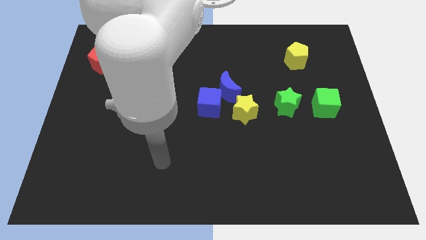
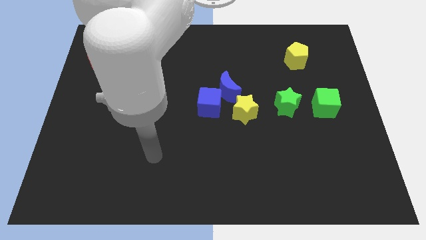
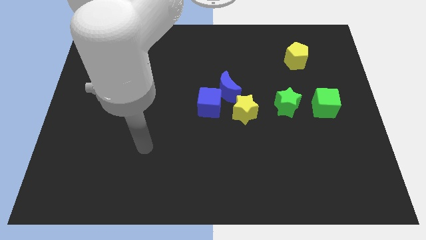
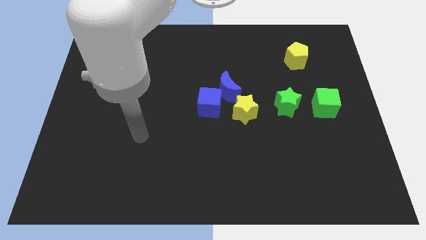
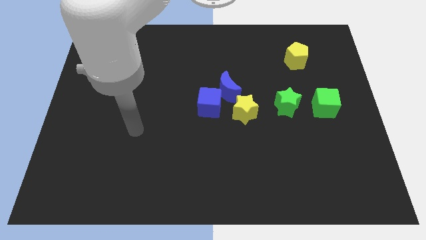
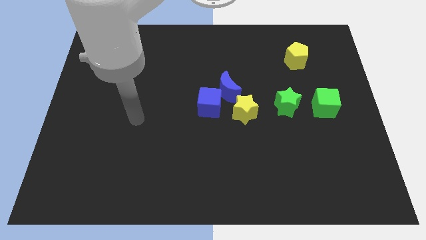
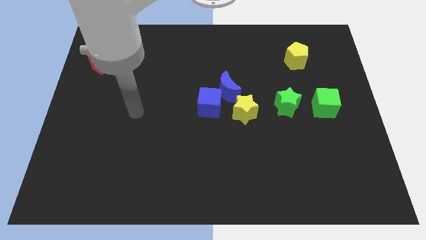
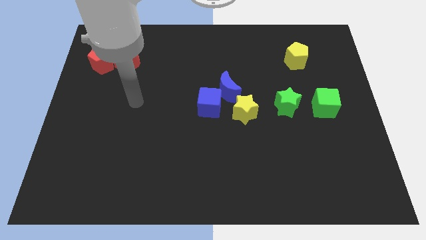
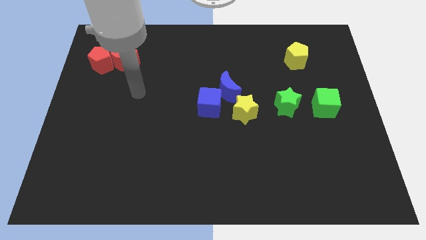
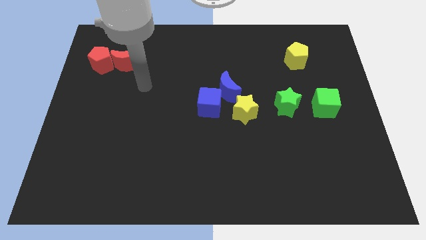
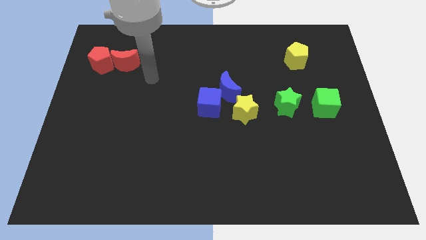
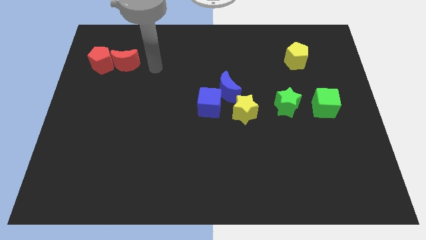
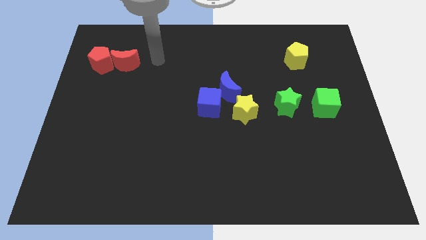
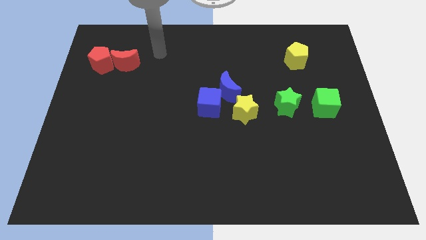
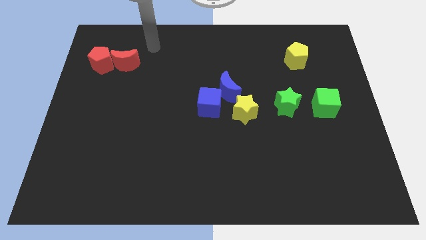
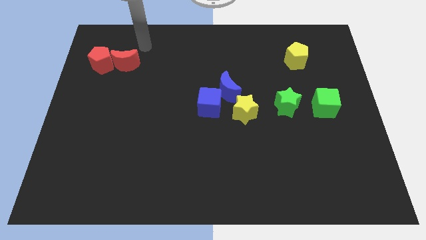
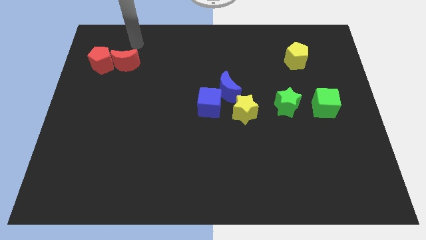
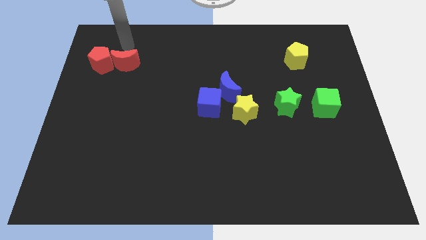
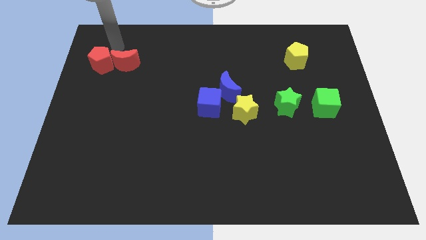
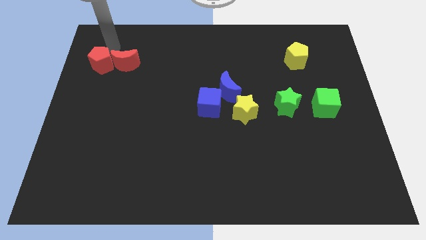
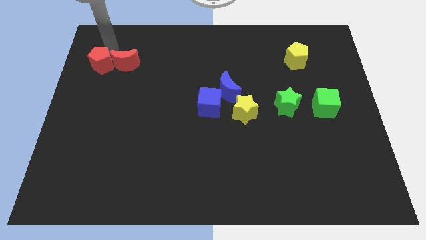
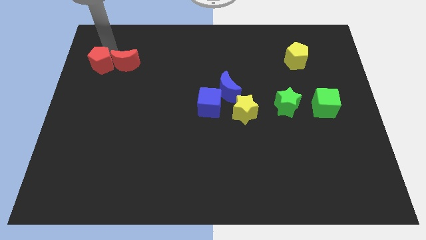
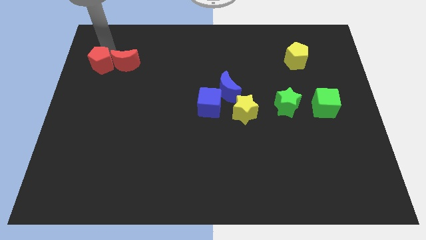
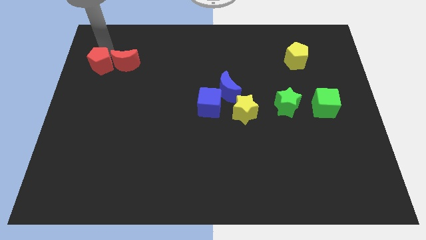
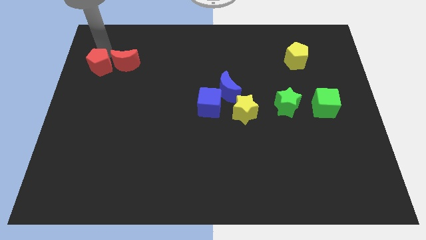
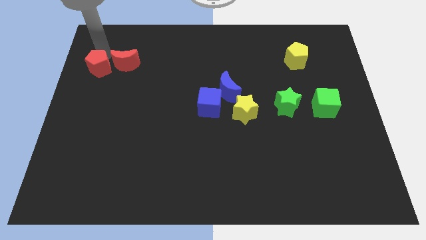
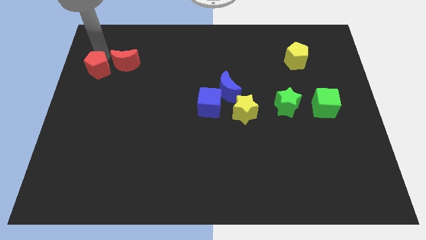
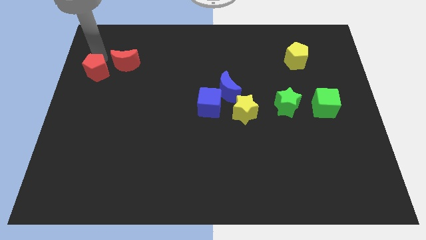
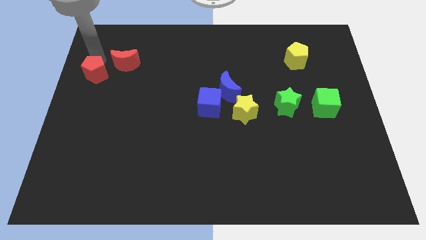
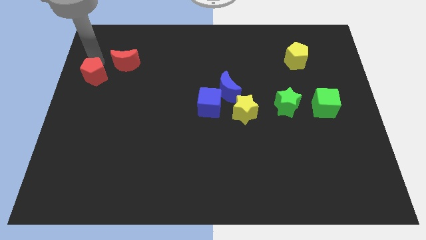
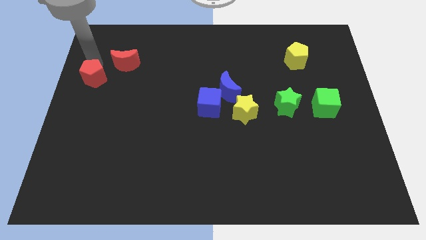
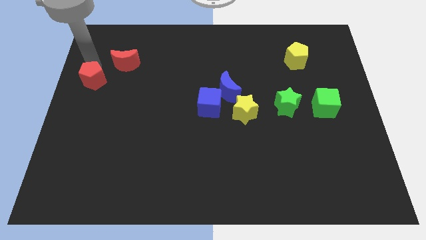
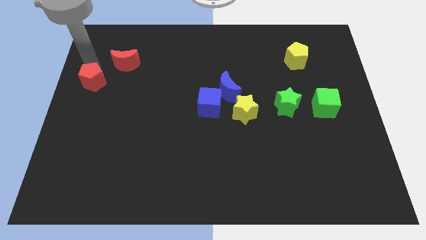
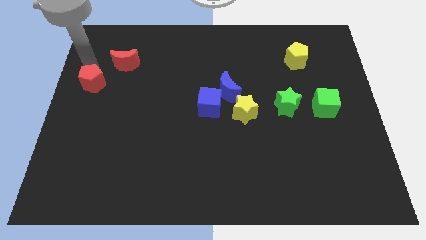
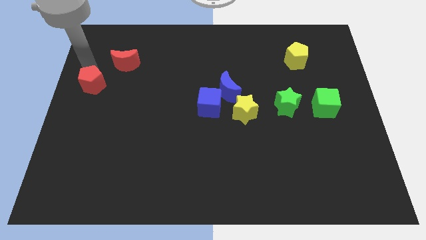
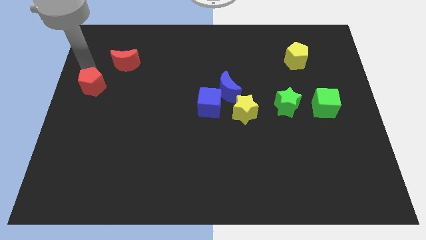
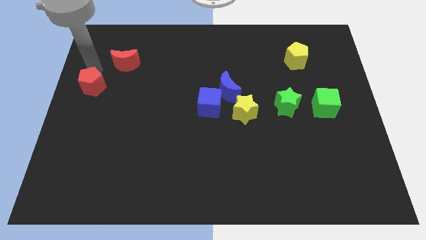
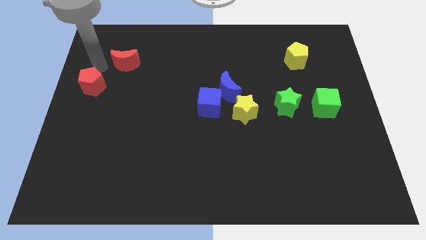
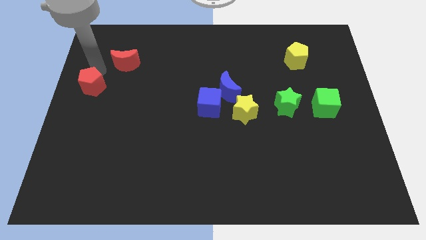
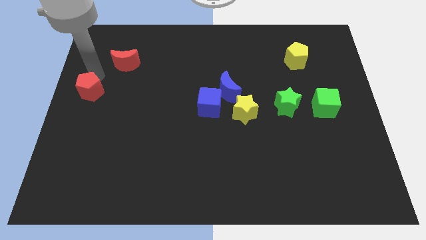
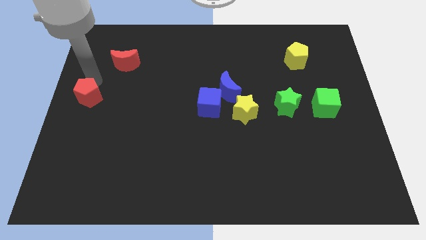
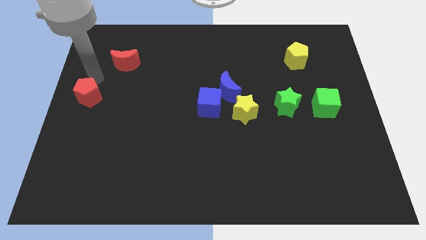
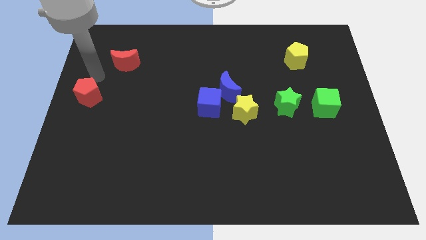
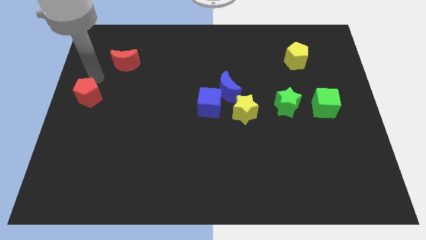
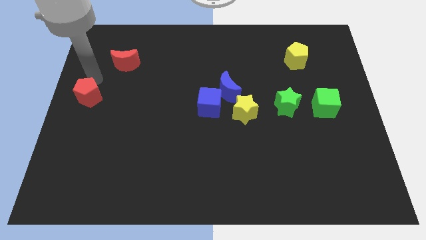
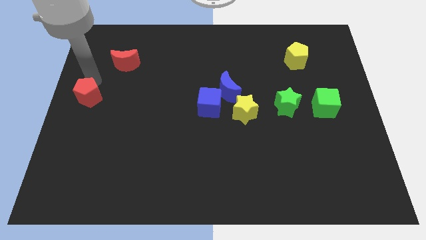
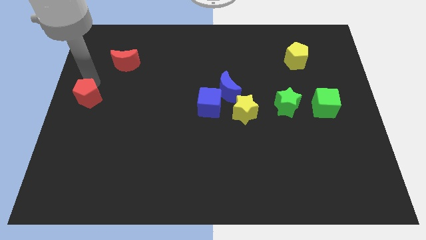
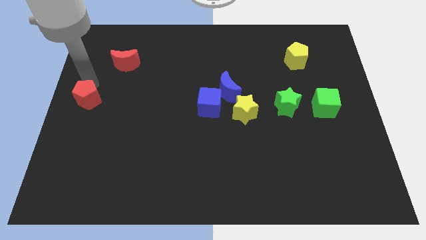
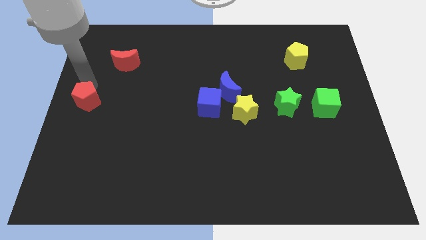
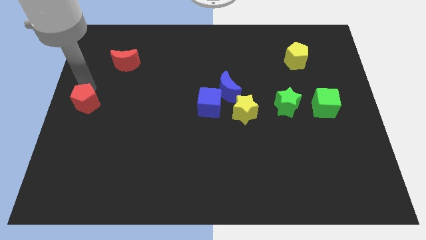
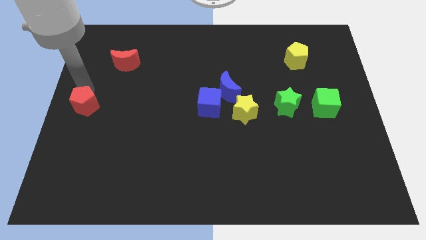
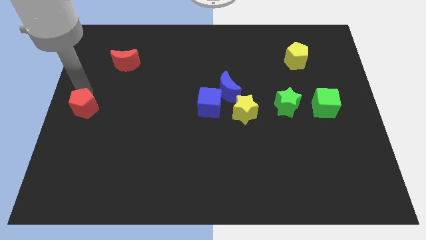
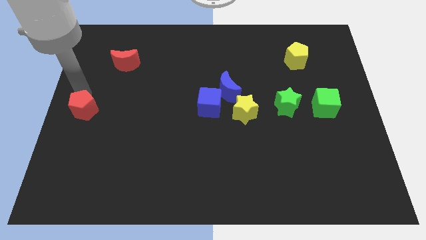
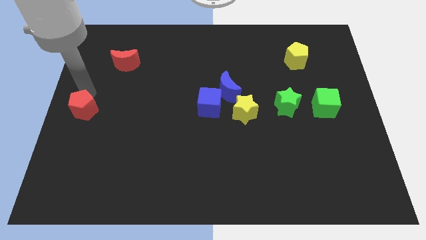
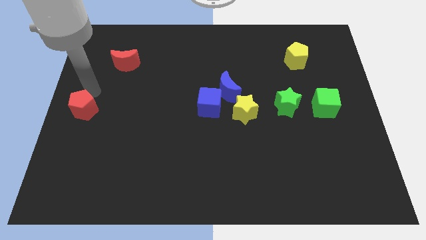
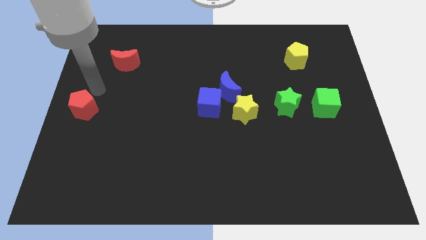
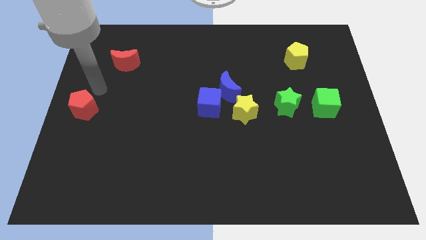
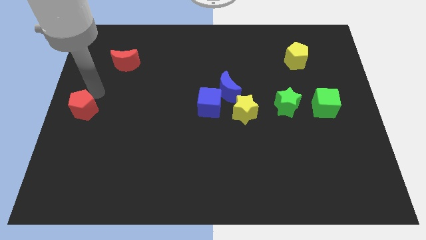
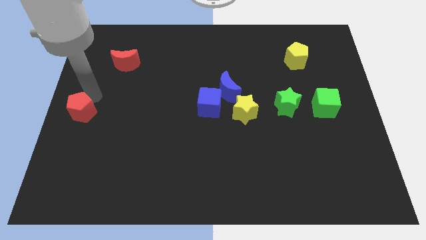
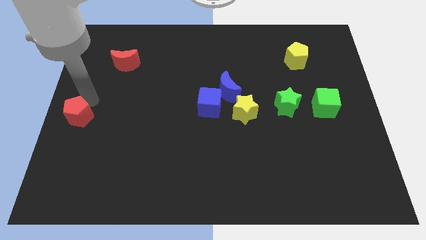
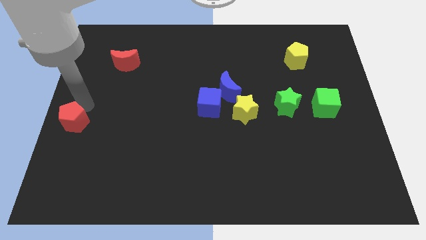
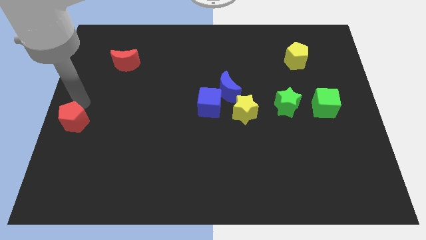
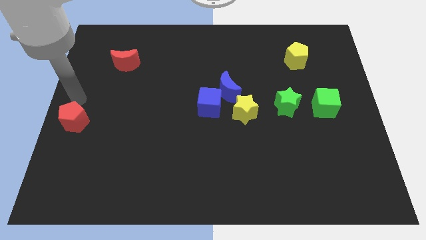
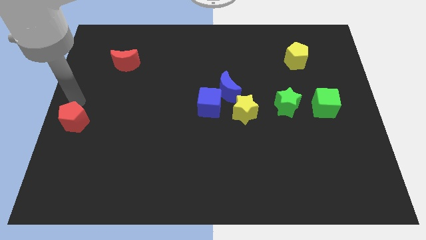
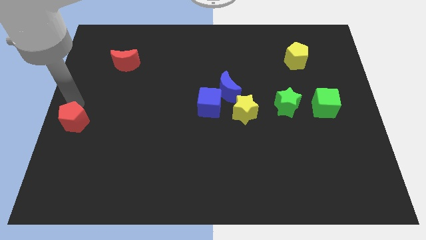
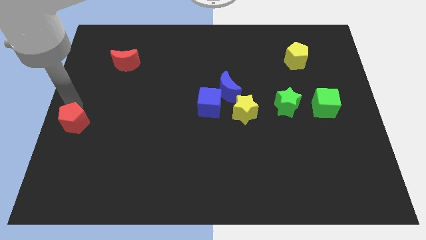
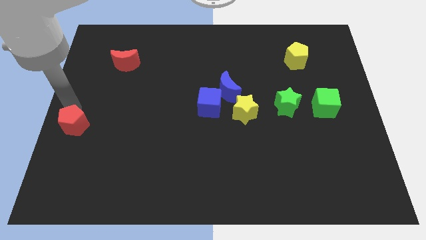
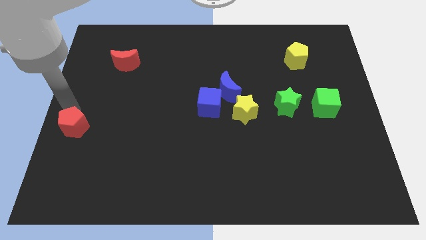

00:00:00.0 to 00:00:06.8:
move the red pentagon downwards

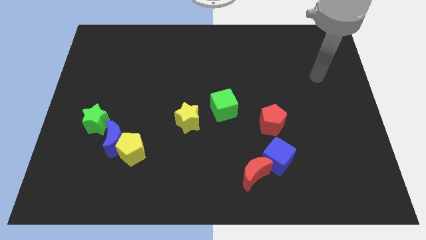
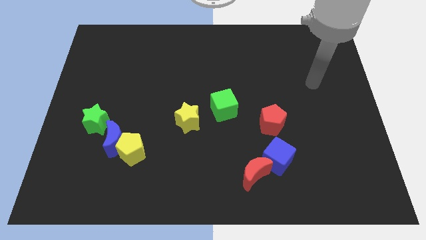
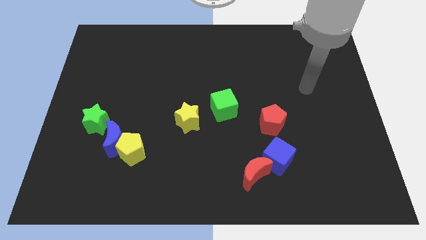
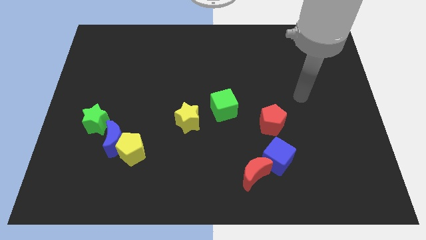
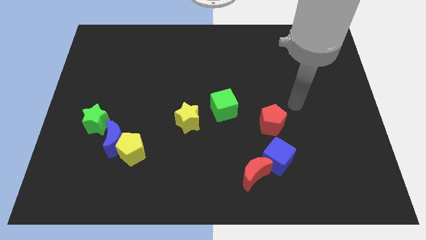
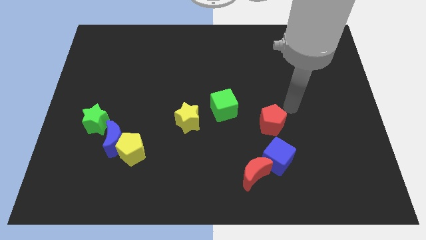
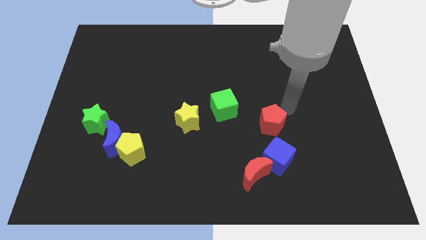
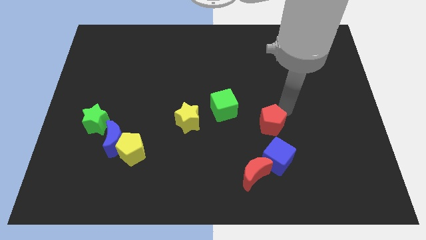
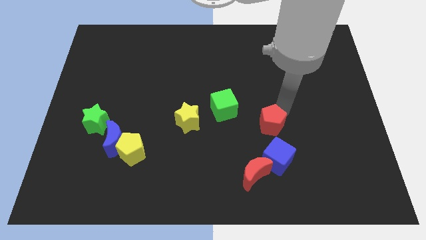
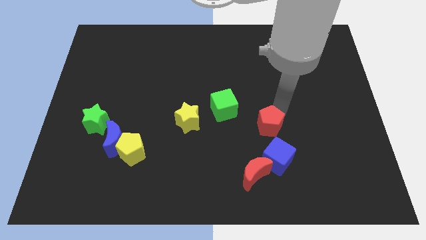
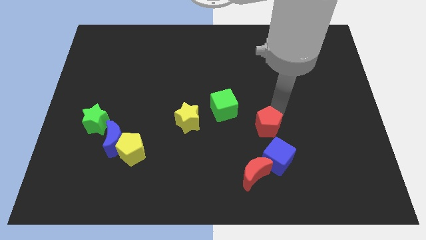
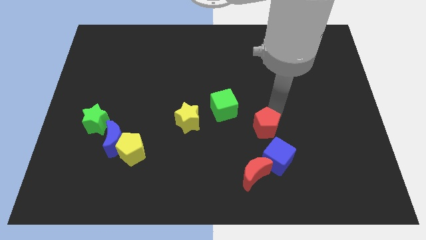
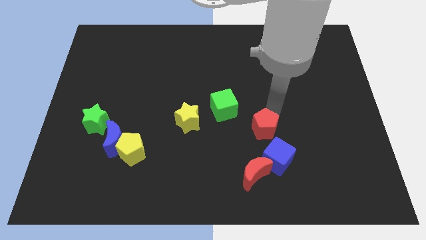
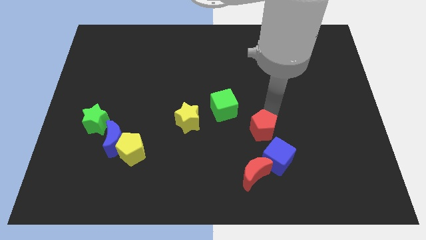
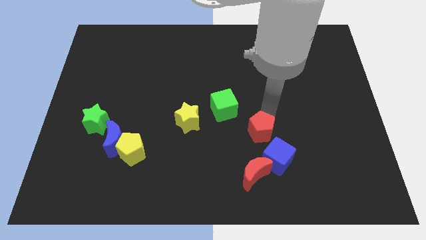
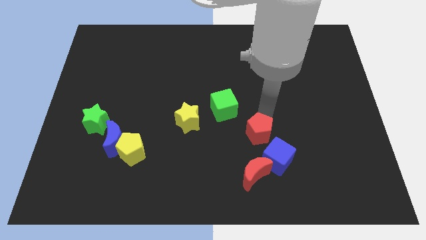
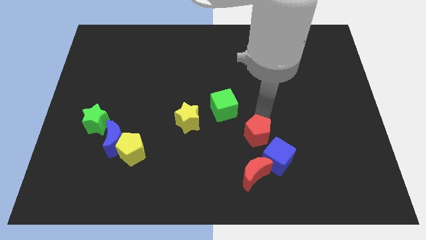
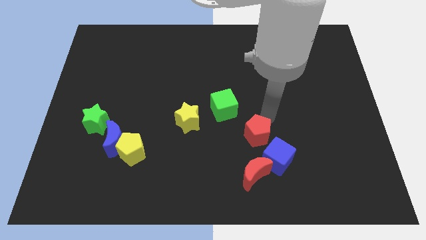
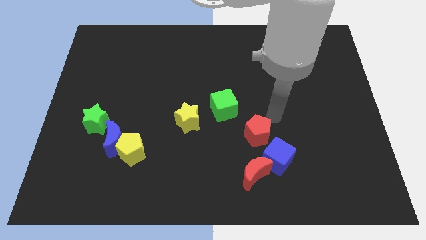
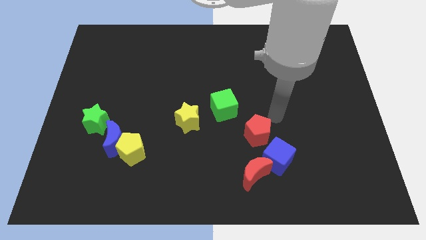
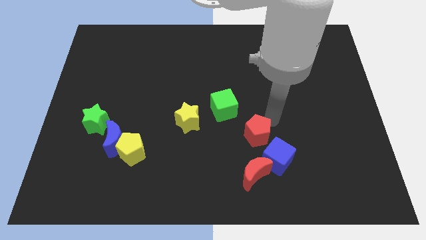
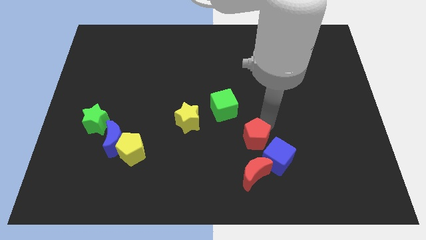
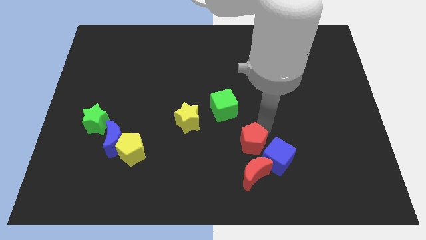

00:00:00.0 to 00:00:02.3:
slightly move the red pentagon down and to the left diagonally
